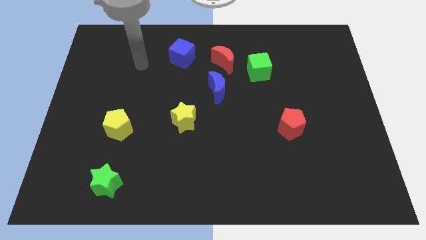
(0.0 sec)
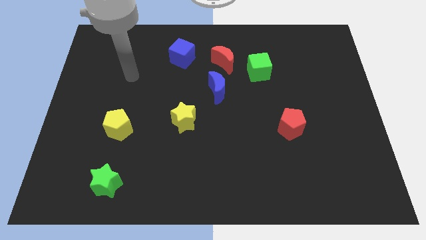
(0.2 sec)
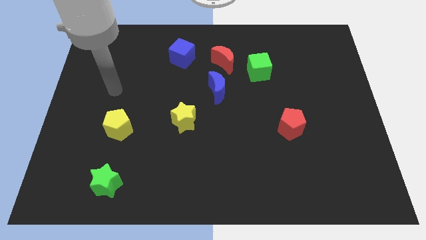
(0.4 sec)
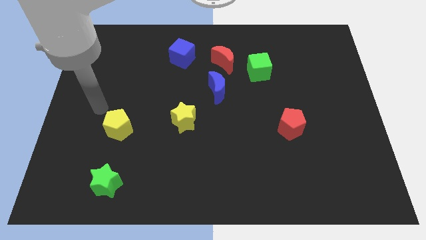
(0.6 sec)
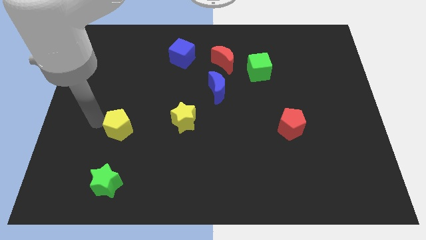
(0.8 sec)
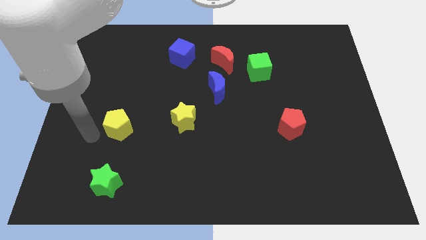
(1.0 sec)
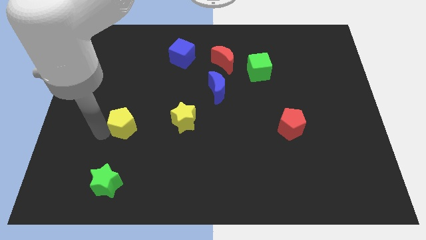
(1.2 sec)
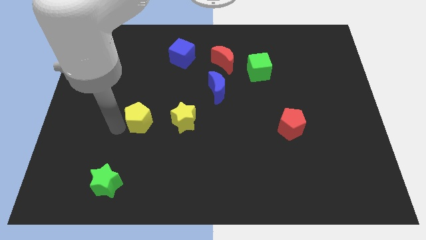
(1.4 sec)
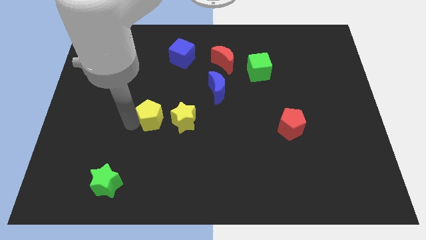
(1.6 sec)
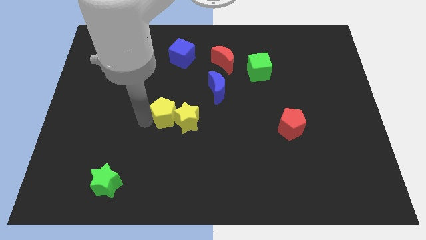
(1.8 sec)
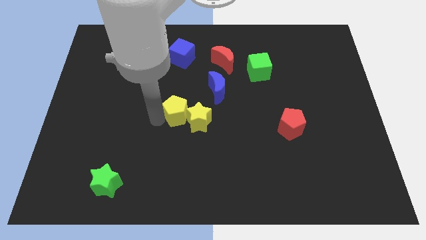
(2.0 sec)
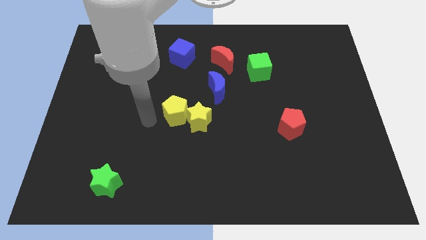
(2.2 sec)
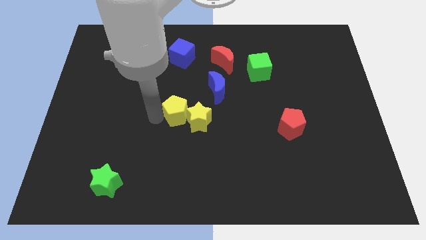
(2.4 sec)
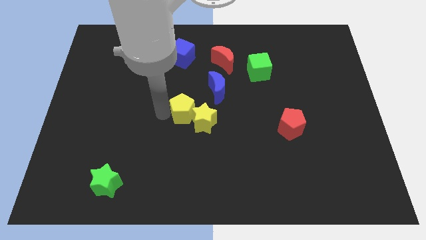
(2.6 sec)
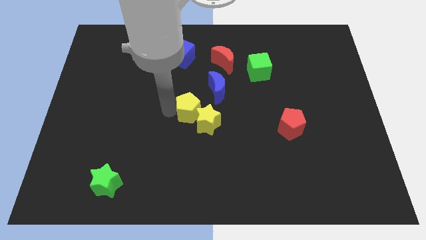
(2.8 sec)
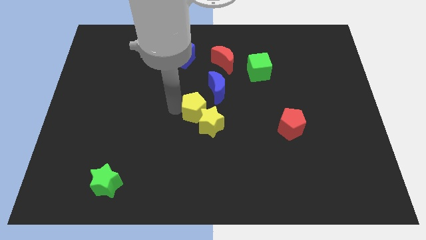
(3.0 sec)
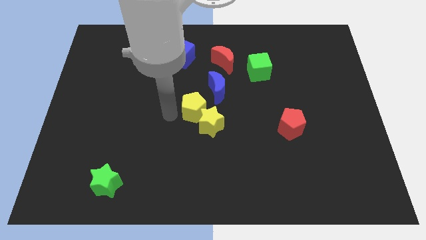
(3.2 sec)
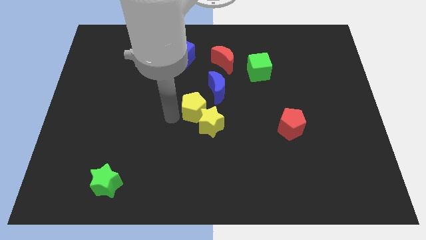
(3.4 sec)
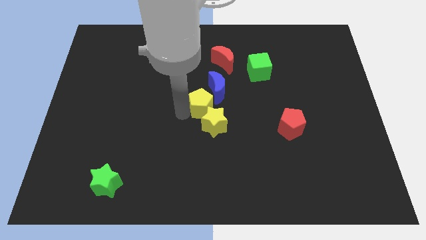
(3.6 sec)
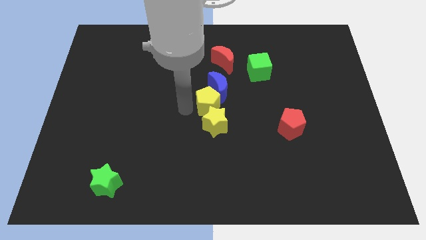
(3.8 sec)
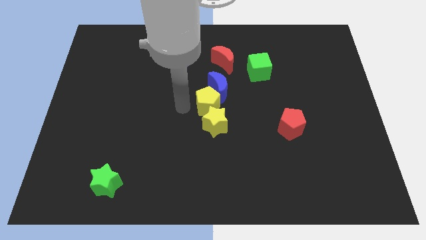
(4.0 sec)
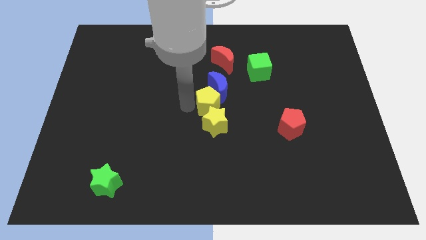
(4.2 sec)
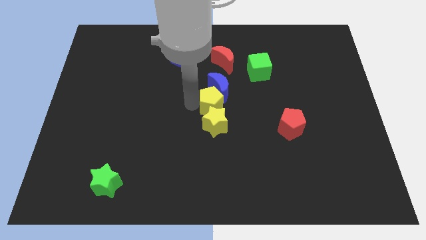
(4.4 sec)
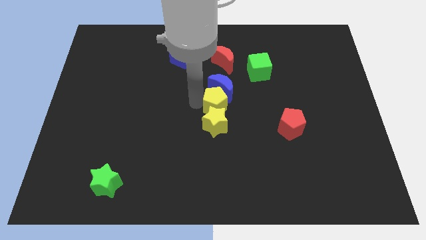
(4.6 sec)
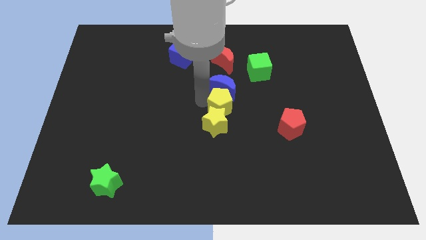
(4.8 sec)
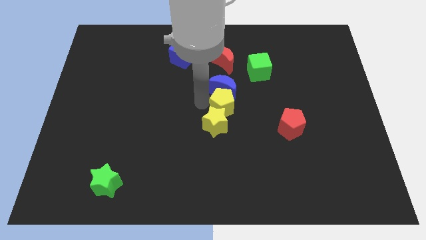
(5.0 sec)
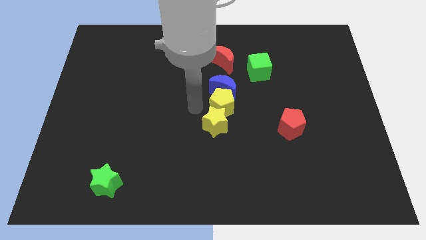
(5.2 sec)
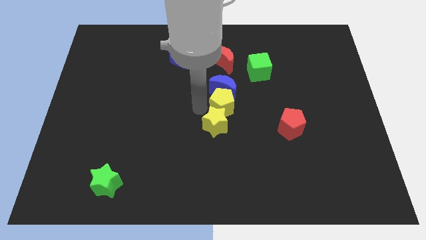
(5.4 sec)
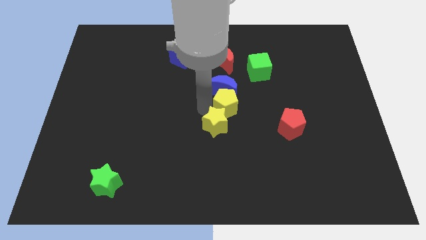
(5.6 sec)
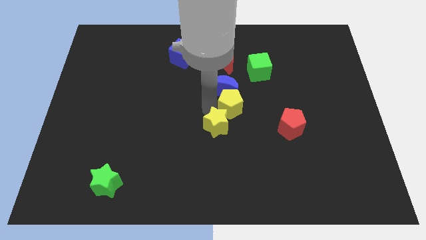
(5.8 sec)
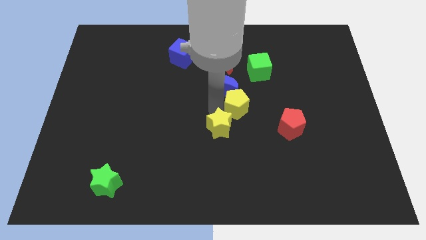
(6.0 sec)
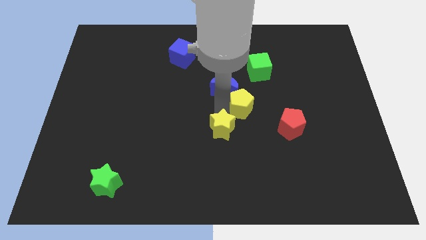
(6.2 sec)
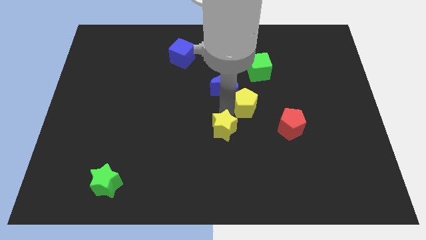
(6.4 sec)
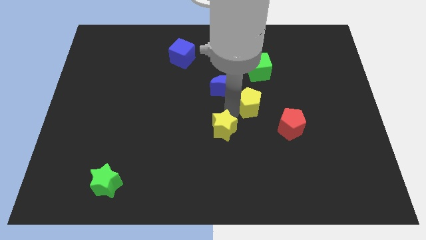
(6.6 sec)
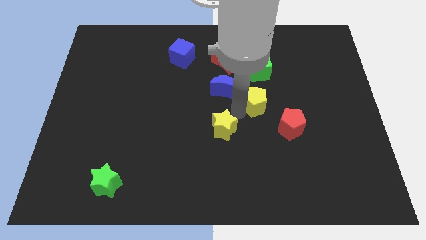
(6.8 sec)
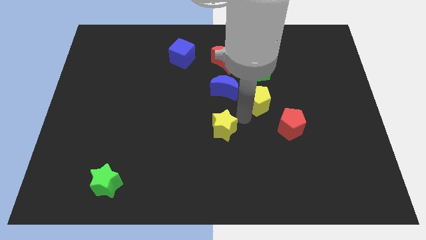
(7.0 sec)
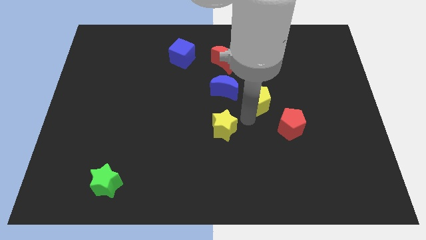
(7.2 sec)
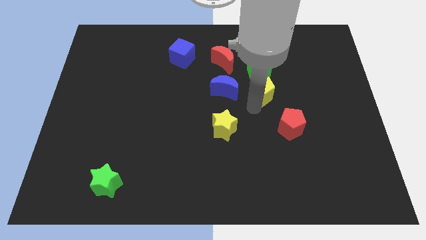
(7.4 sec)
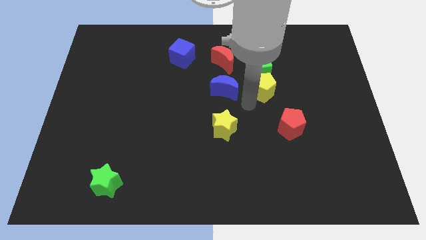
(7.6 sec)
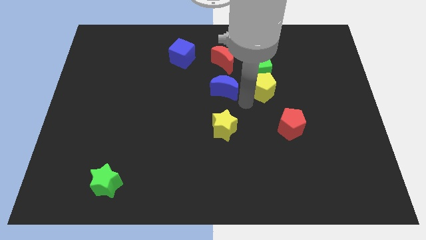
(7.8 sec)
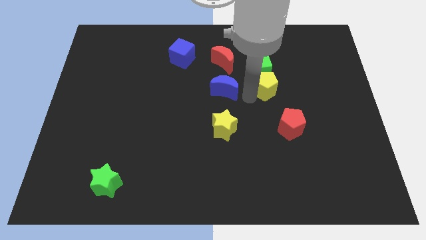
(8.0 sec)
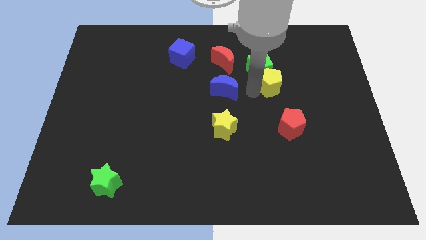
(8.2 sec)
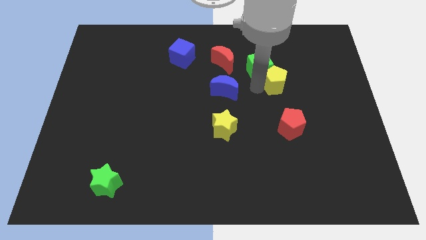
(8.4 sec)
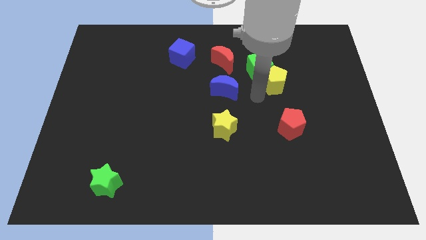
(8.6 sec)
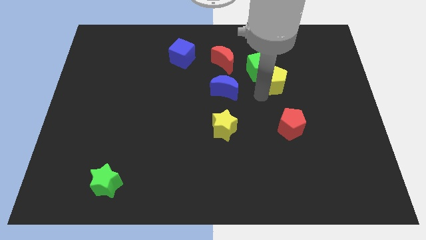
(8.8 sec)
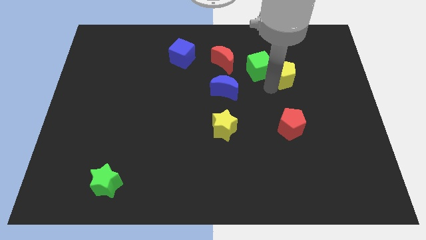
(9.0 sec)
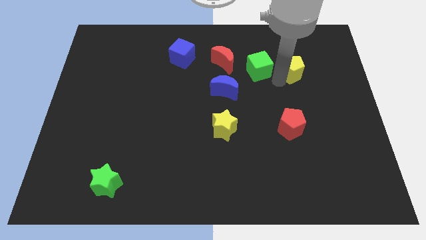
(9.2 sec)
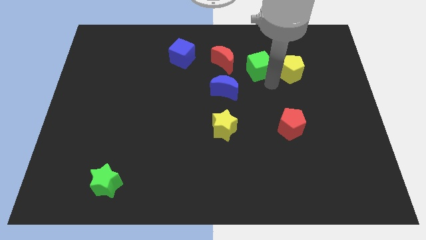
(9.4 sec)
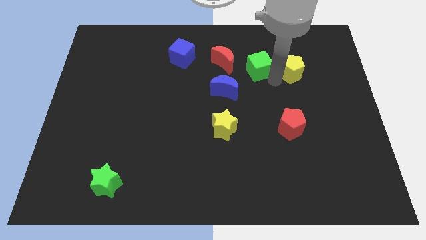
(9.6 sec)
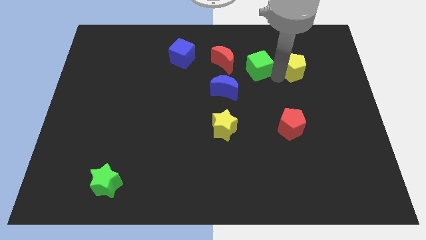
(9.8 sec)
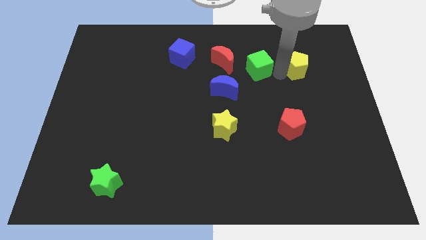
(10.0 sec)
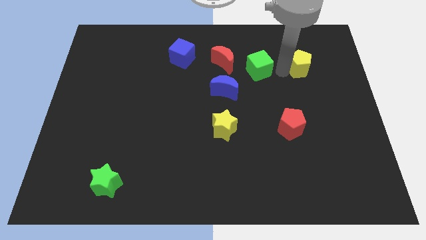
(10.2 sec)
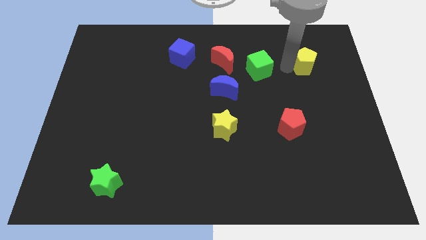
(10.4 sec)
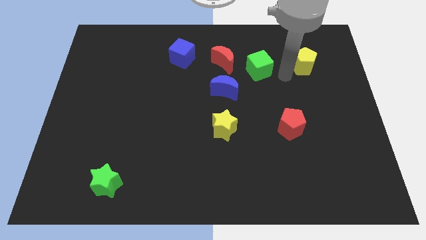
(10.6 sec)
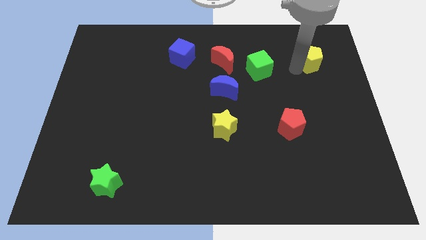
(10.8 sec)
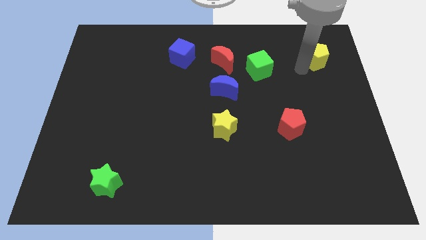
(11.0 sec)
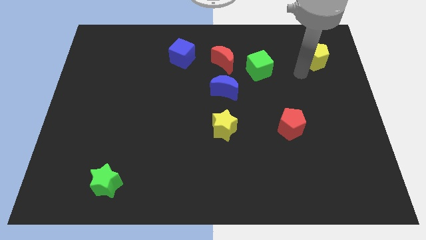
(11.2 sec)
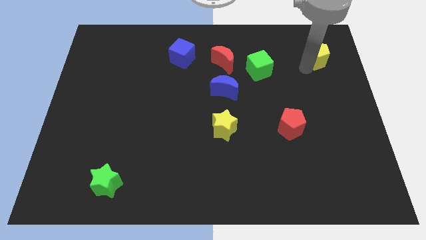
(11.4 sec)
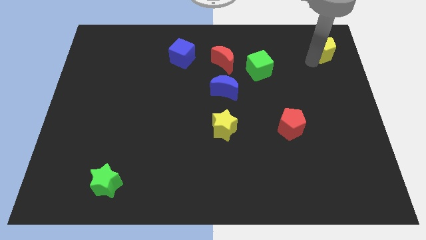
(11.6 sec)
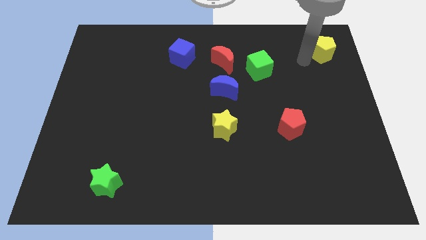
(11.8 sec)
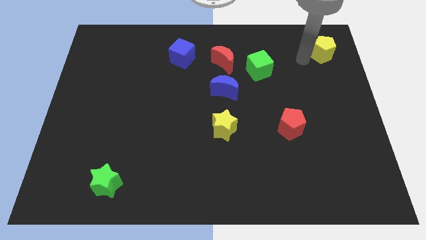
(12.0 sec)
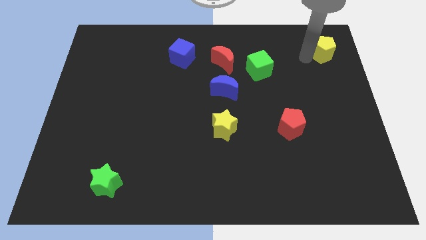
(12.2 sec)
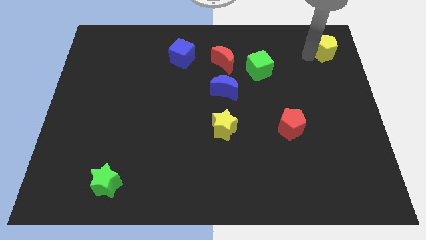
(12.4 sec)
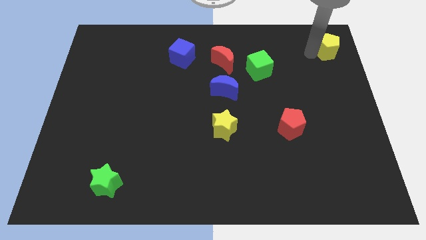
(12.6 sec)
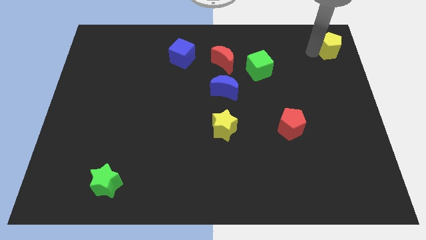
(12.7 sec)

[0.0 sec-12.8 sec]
push the yellow pentagon to the upper right corner
